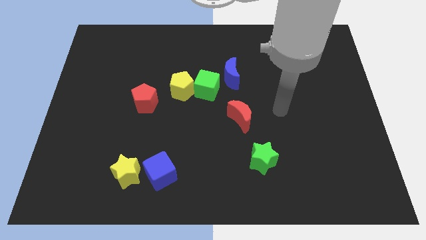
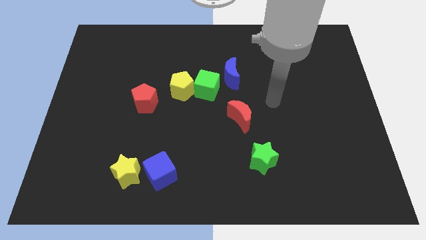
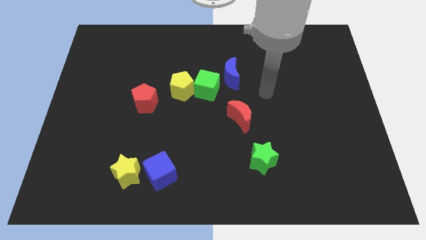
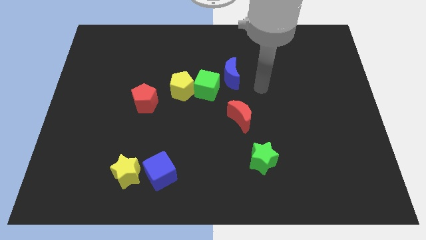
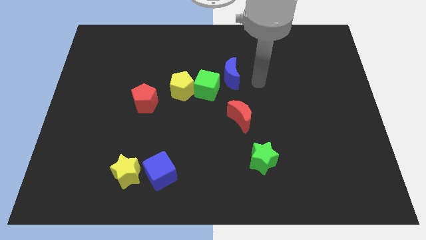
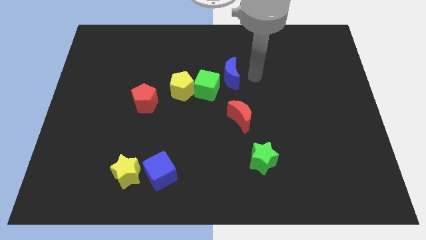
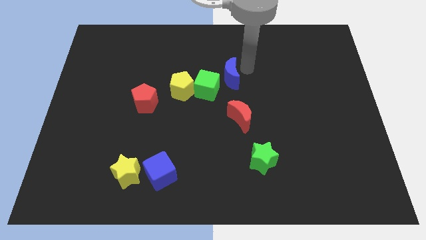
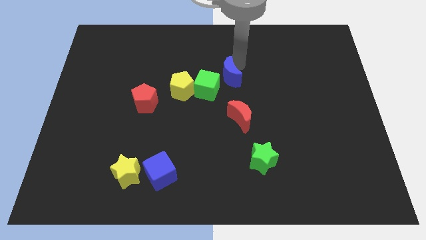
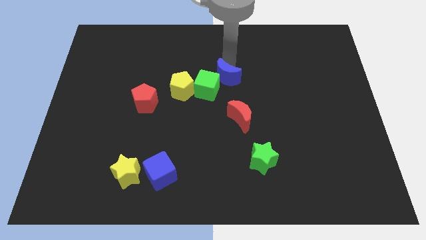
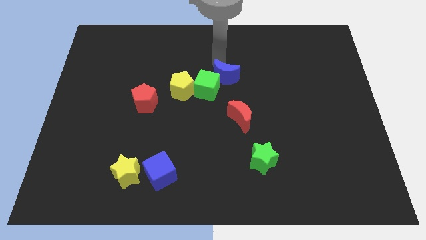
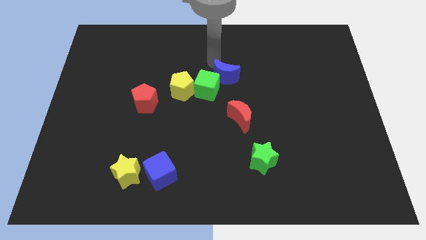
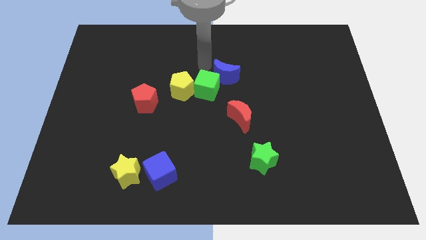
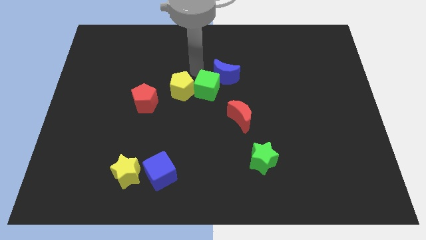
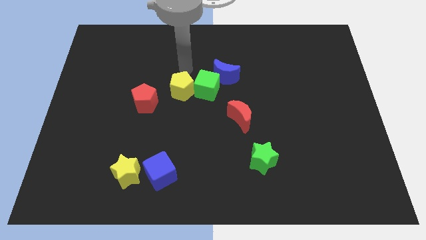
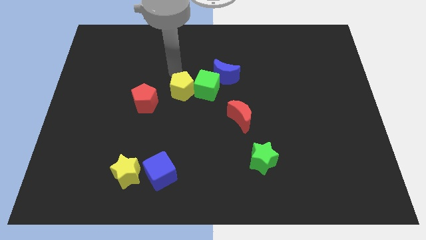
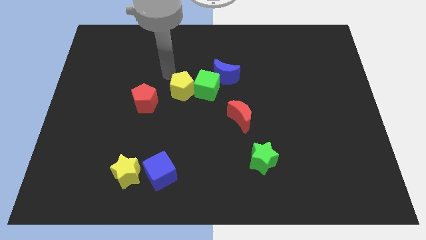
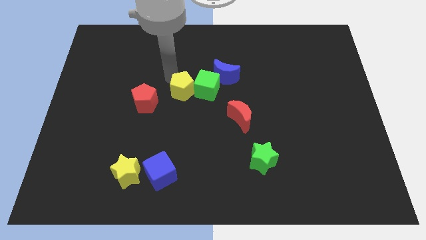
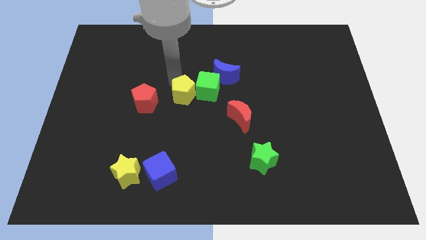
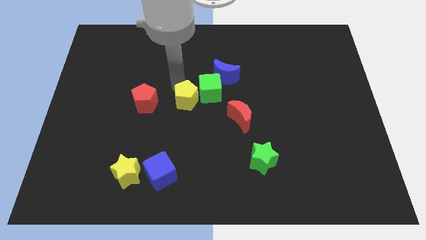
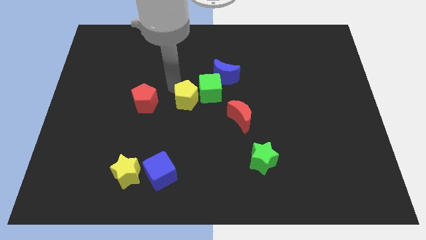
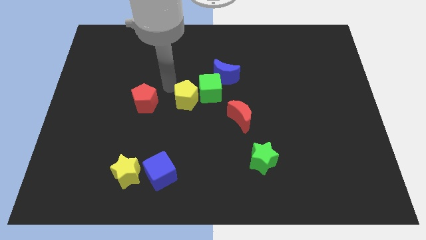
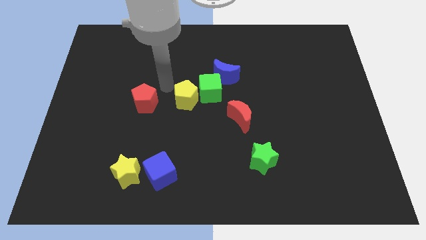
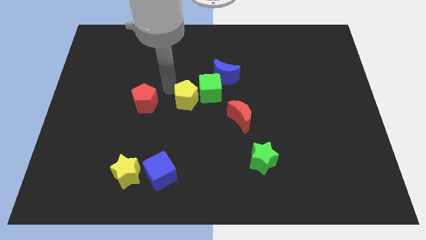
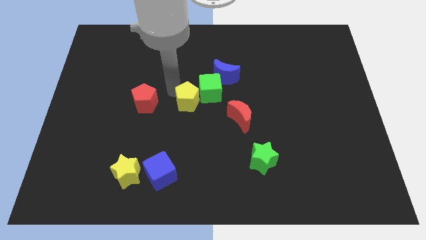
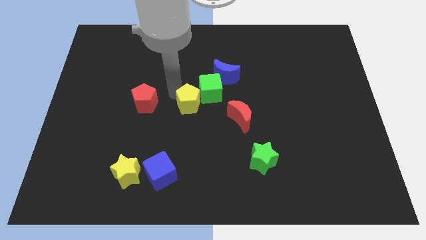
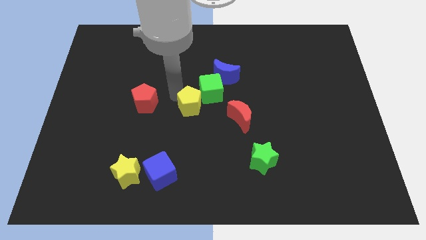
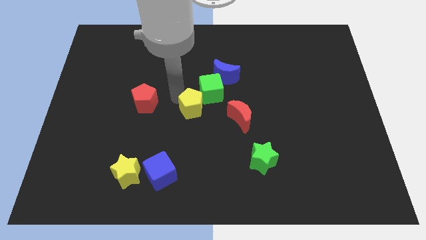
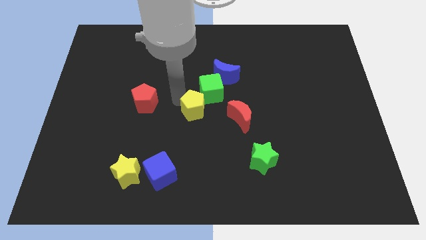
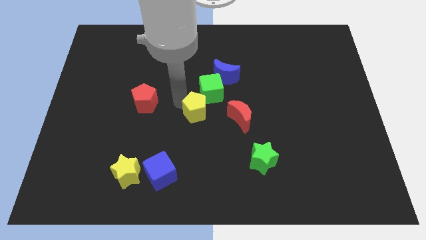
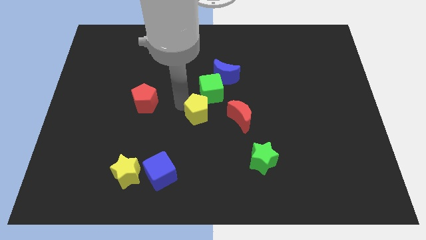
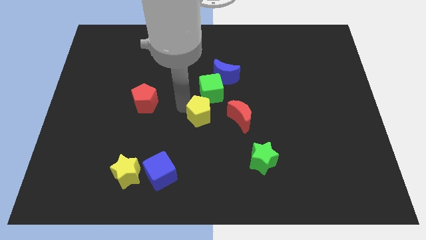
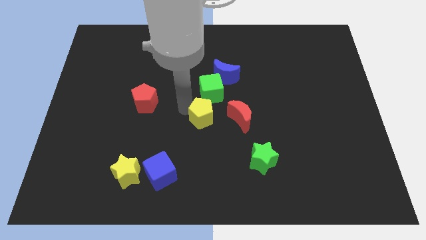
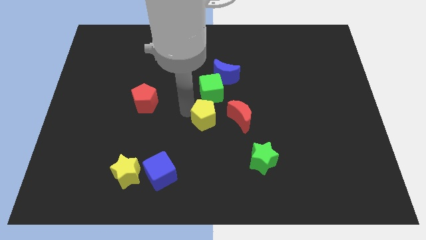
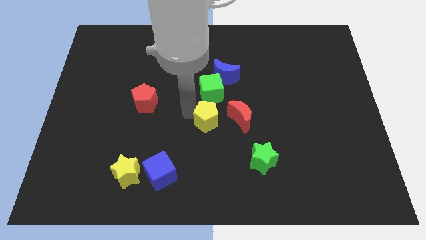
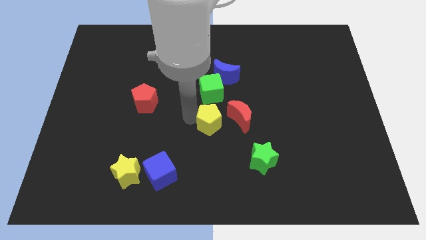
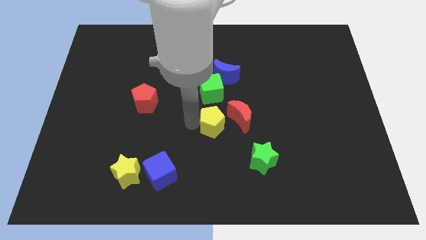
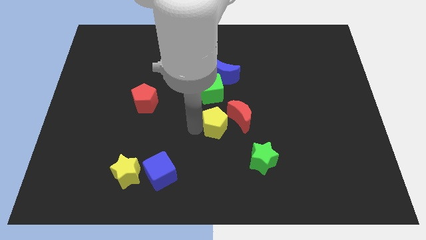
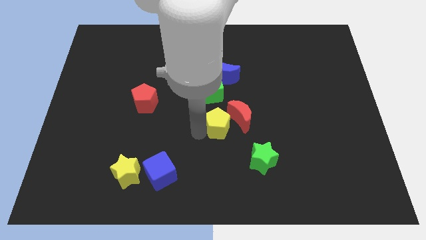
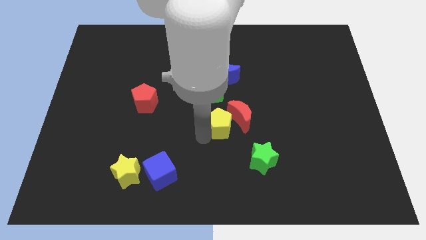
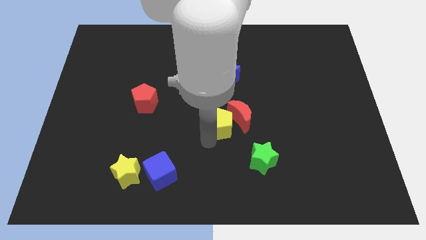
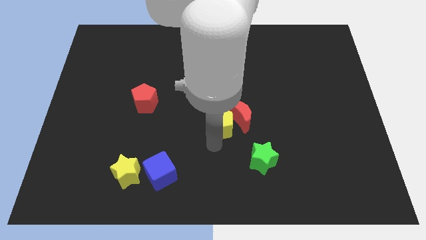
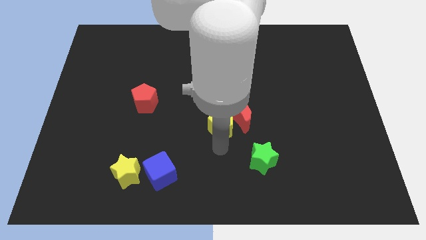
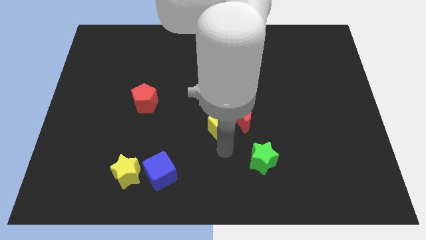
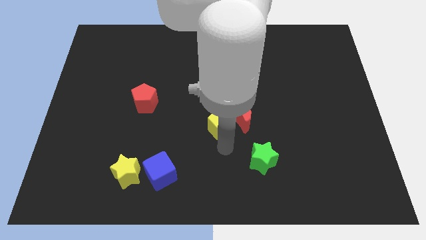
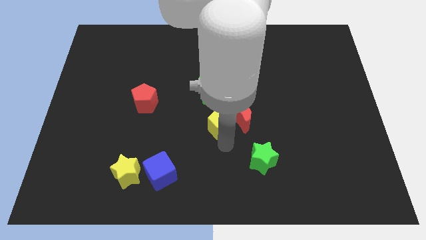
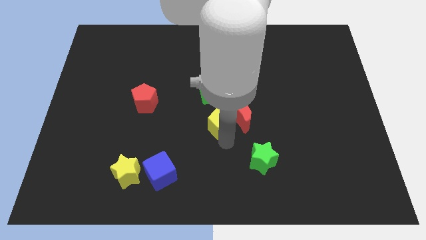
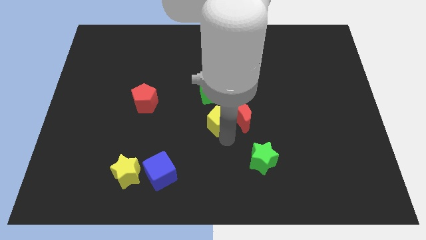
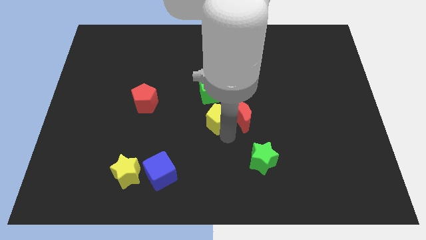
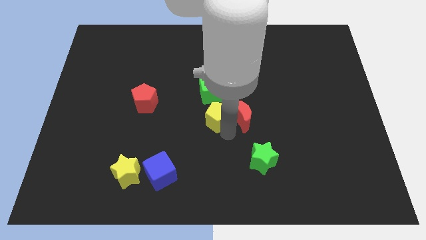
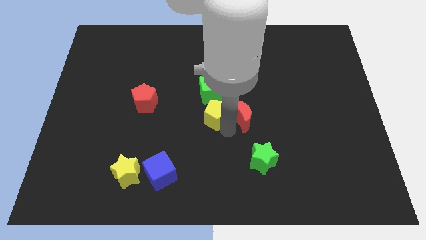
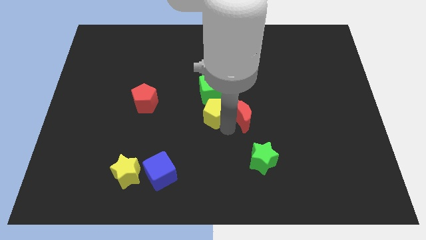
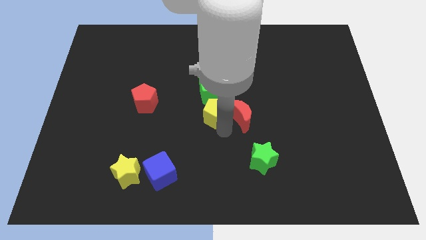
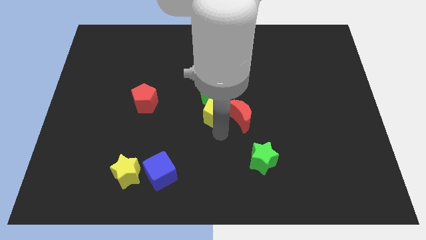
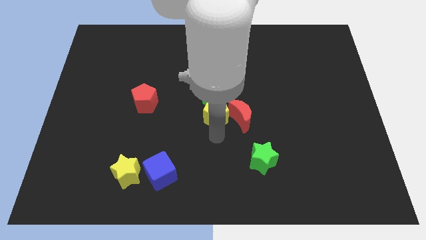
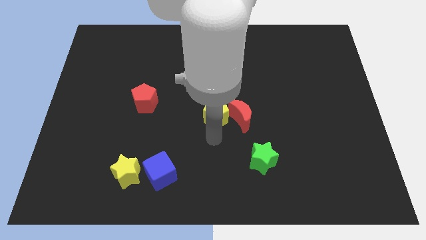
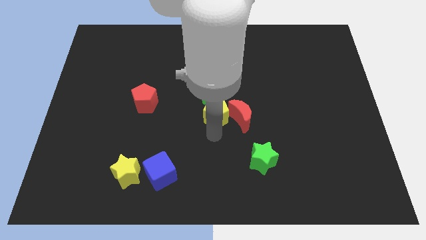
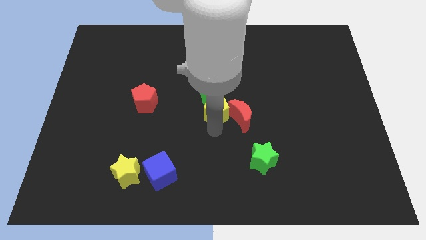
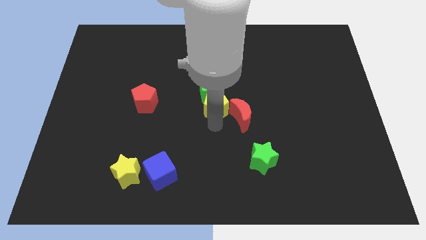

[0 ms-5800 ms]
slightly move the yellow pentagon to the right

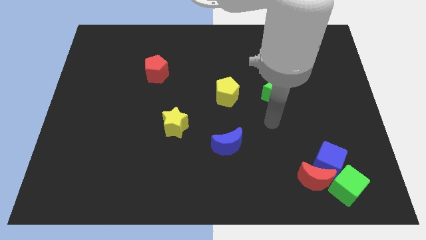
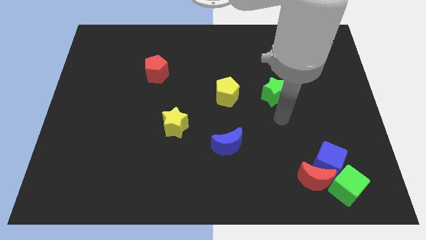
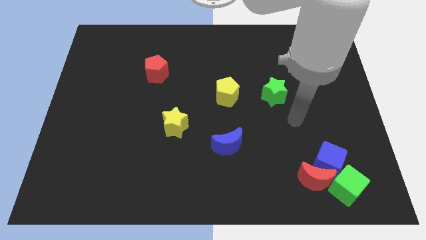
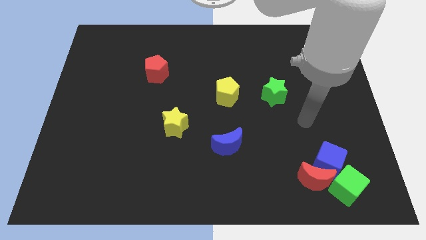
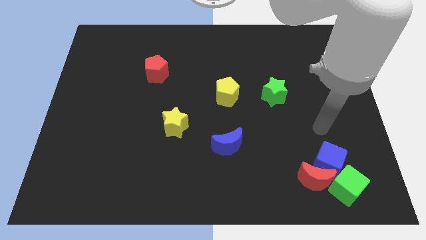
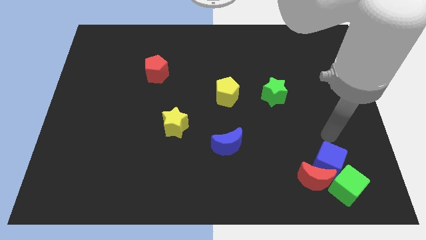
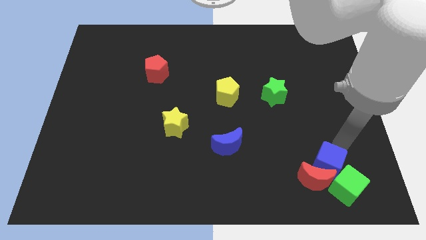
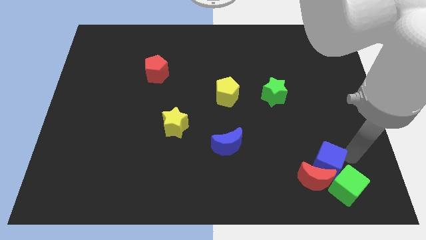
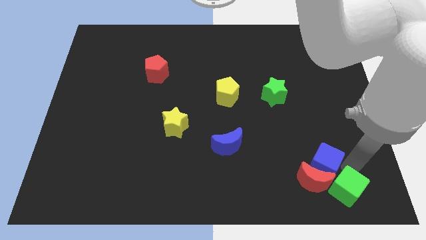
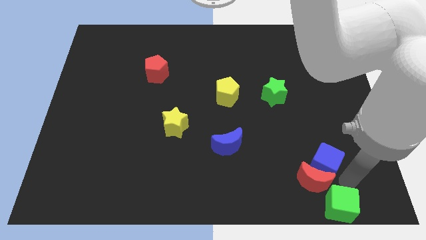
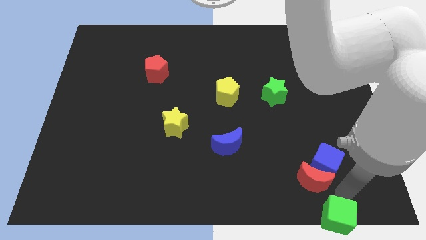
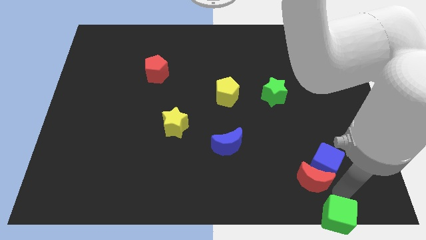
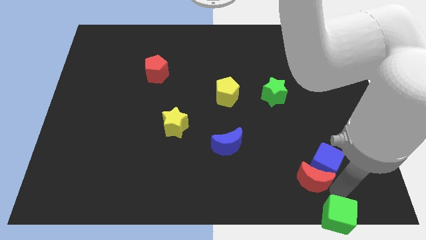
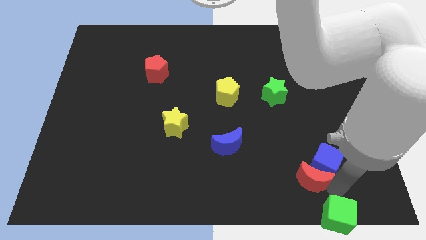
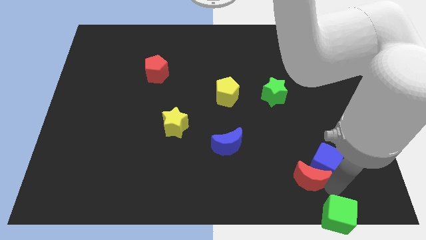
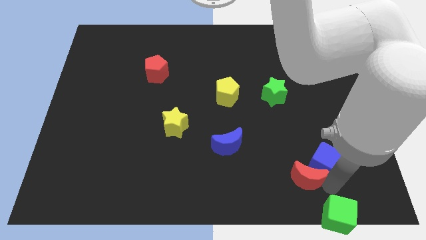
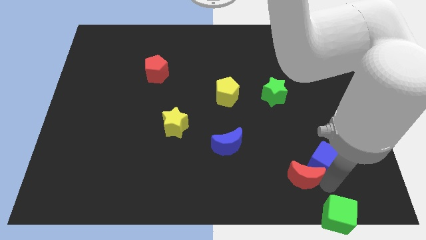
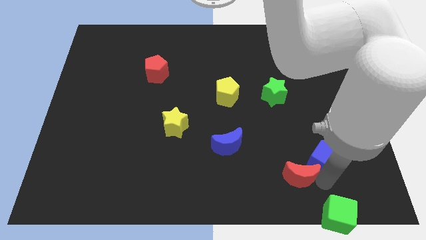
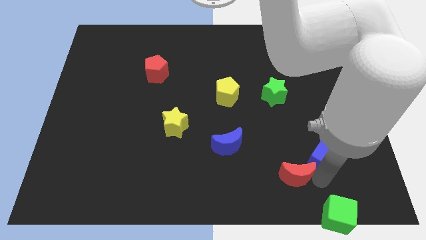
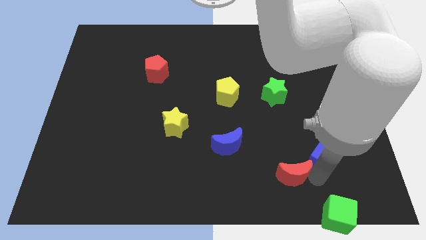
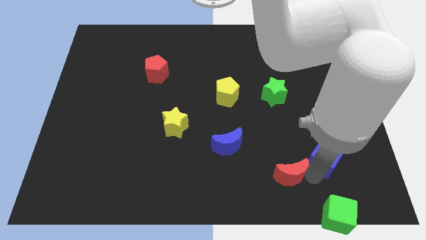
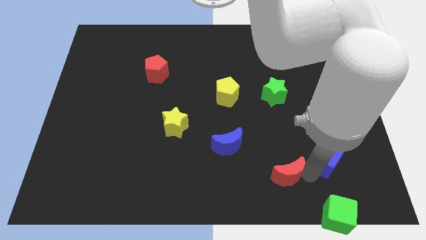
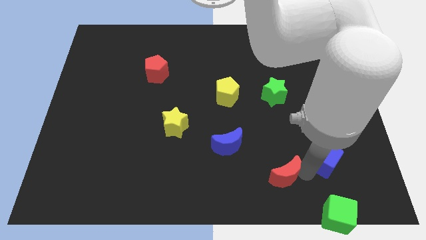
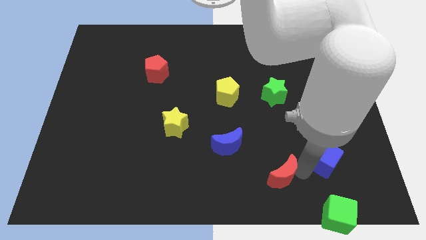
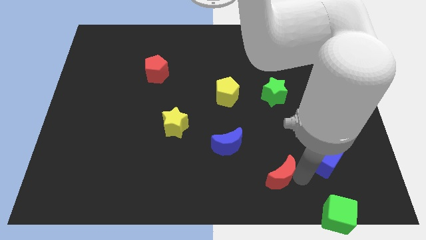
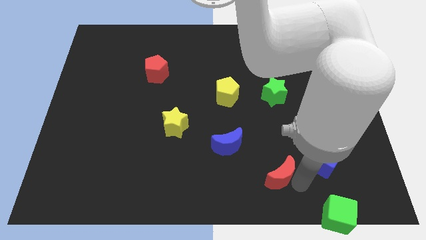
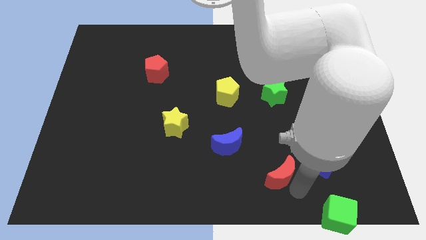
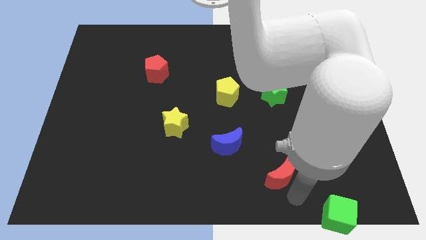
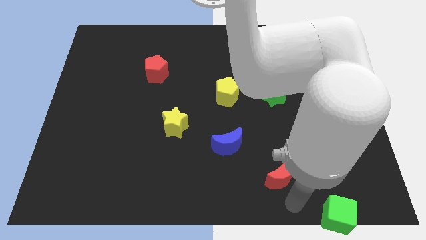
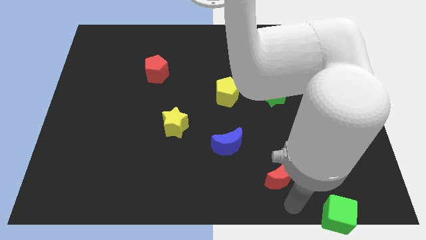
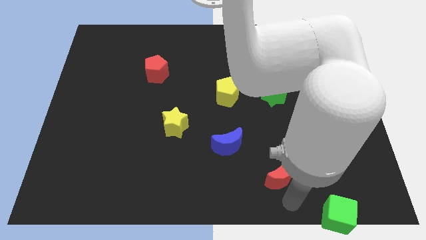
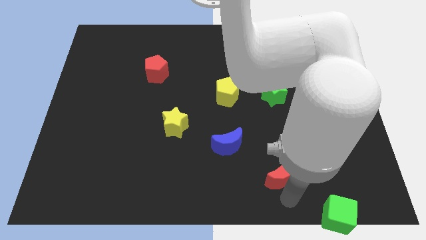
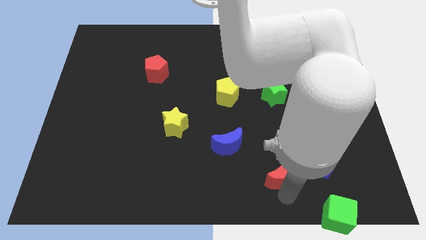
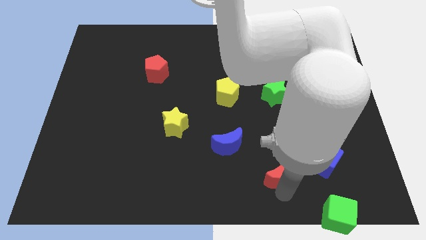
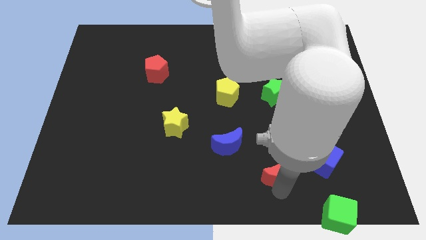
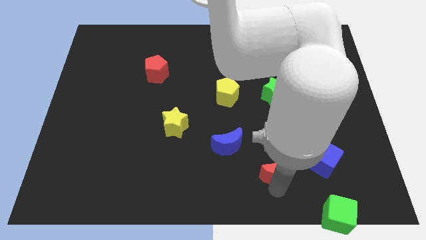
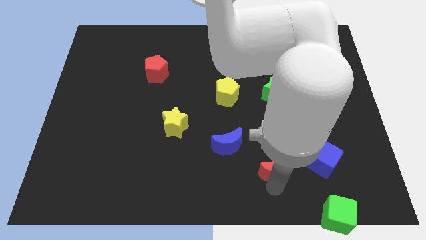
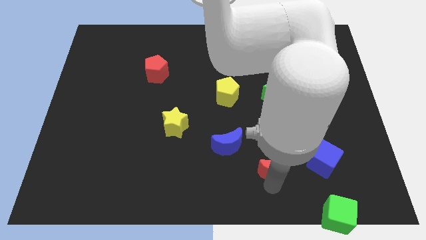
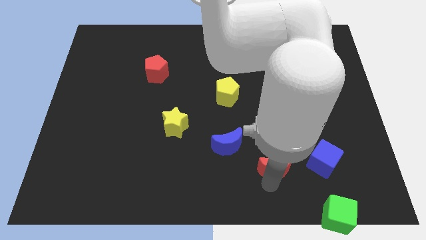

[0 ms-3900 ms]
slightly push the red moon diagonally upwards and to the left
